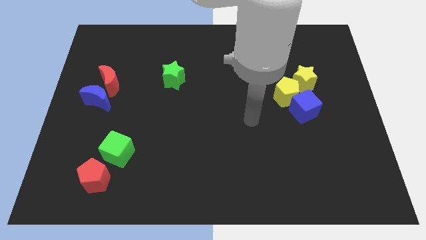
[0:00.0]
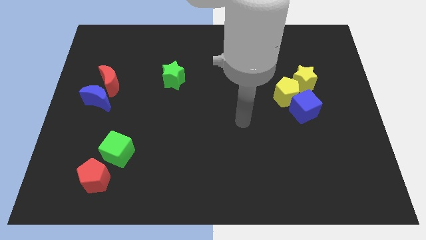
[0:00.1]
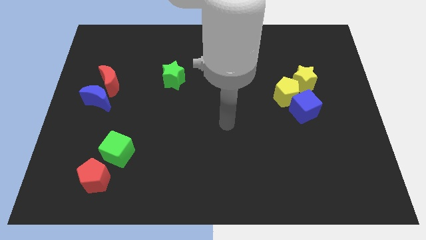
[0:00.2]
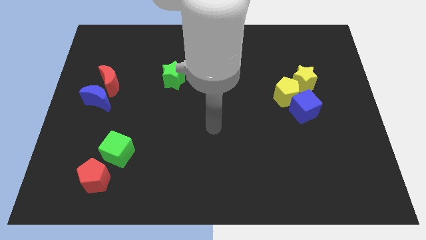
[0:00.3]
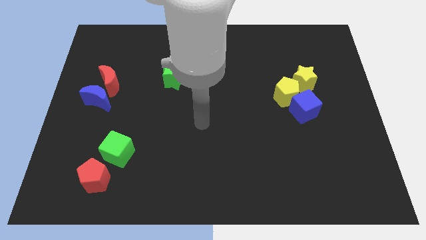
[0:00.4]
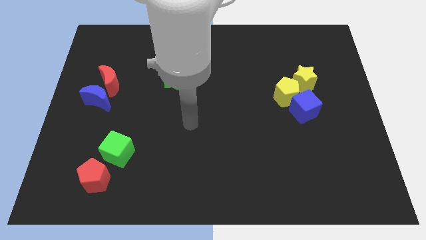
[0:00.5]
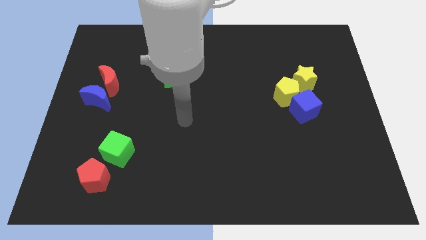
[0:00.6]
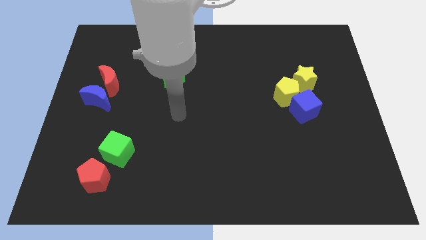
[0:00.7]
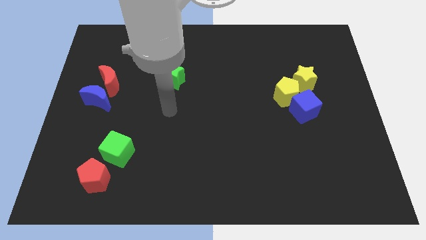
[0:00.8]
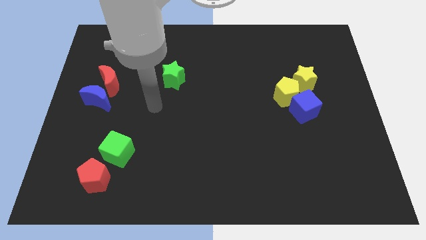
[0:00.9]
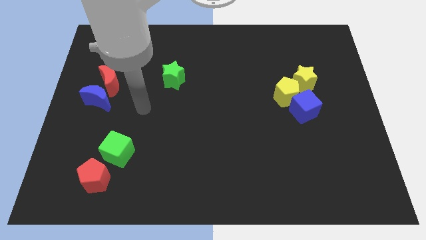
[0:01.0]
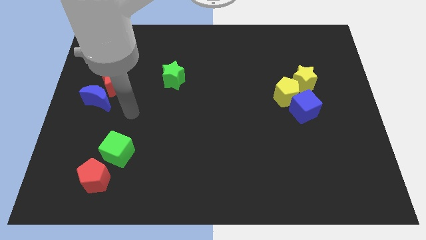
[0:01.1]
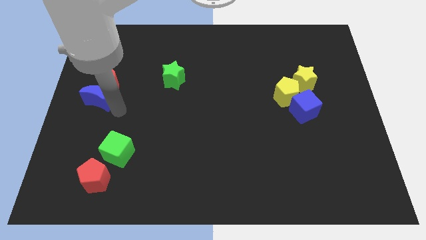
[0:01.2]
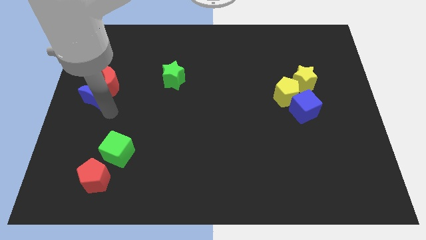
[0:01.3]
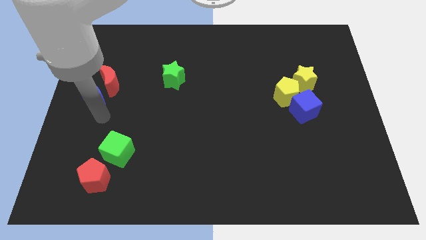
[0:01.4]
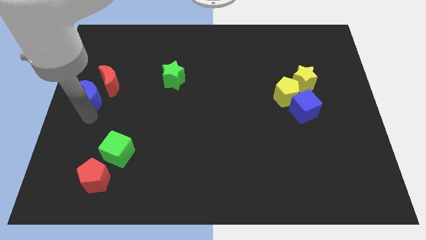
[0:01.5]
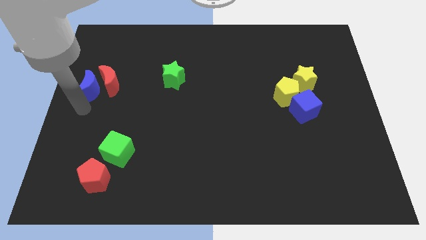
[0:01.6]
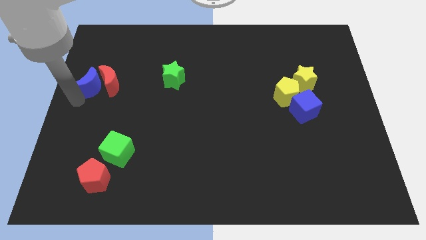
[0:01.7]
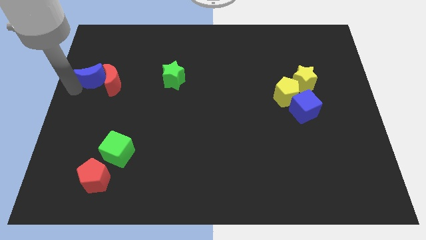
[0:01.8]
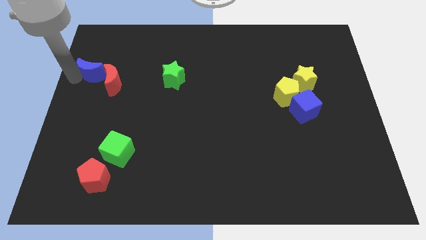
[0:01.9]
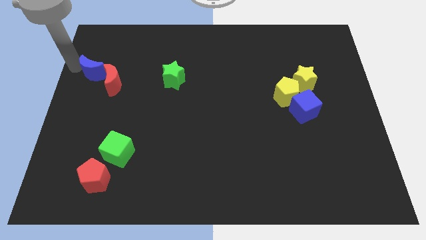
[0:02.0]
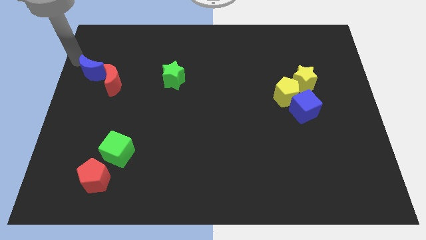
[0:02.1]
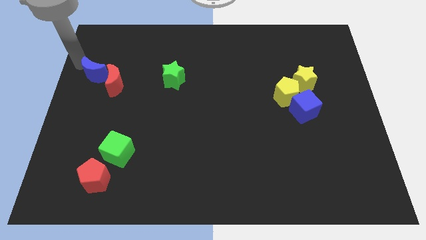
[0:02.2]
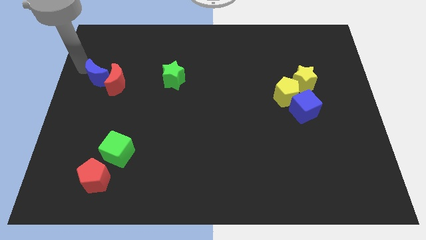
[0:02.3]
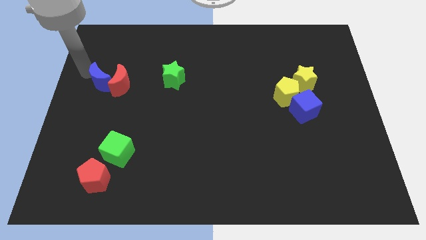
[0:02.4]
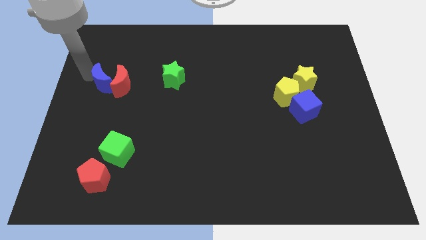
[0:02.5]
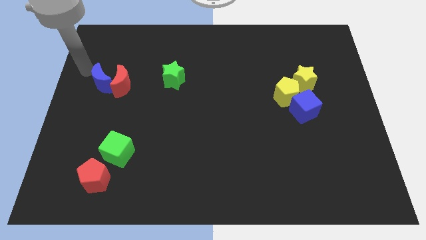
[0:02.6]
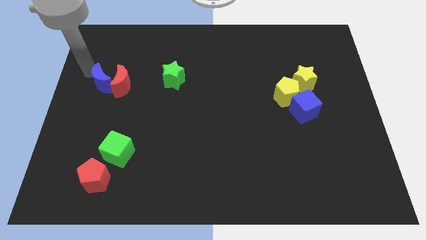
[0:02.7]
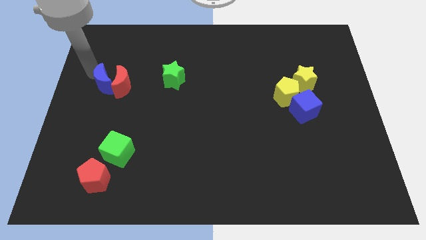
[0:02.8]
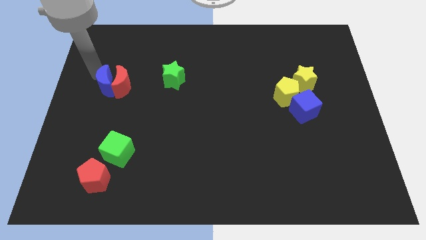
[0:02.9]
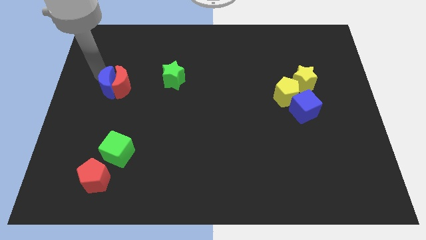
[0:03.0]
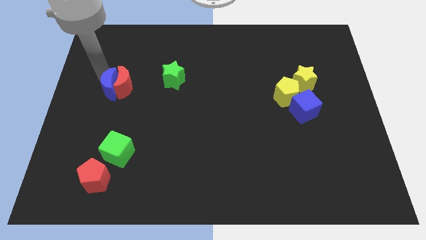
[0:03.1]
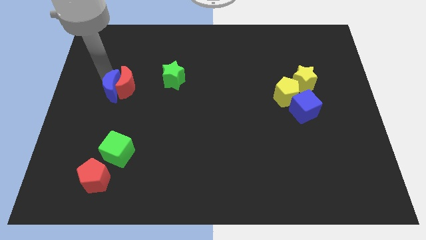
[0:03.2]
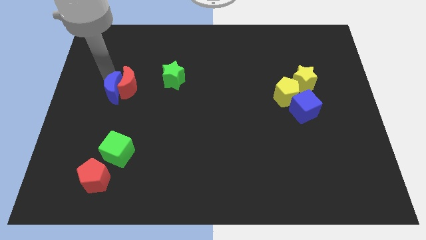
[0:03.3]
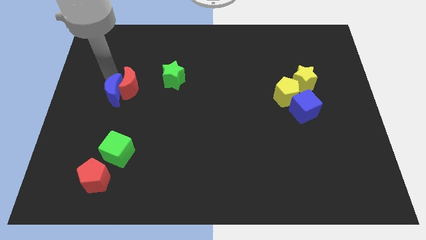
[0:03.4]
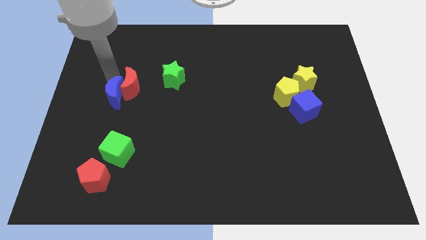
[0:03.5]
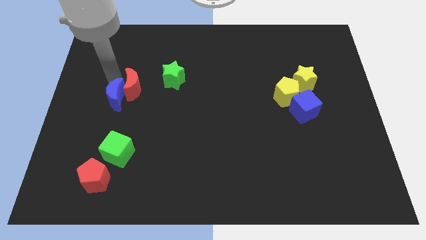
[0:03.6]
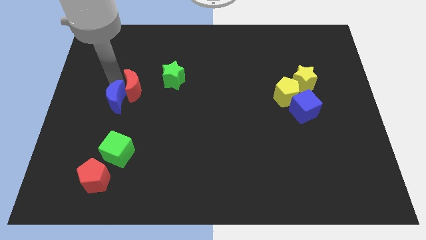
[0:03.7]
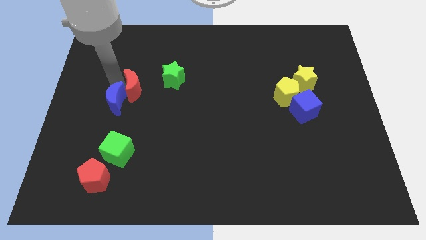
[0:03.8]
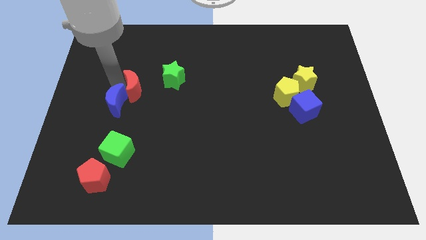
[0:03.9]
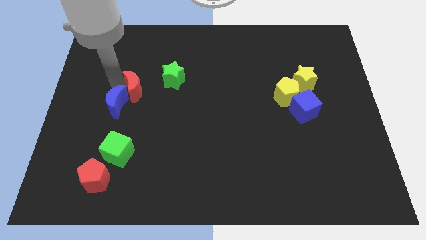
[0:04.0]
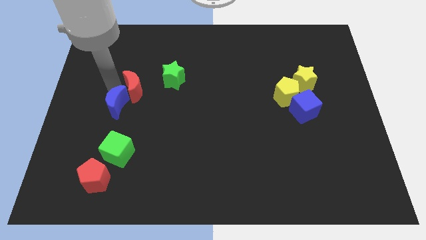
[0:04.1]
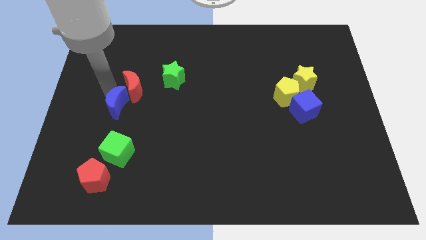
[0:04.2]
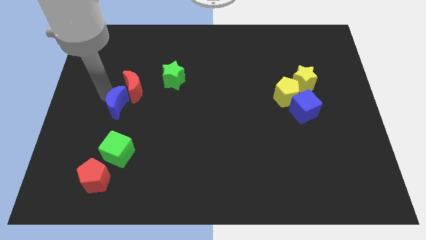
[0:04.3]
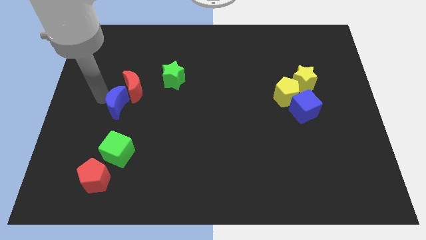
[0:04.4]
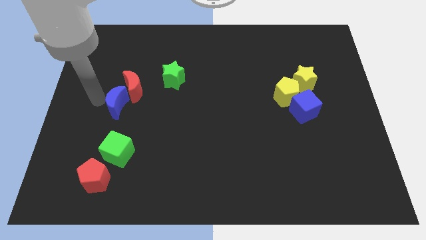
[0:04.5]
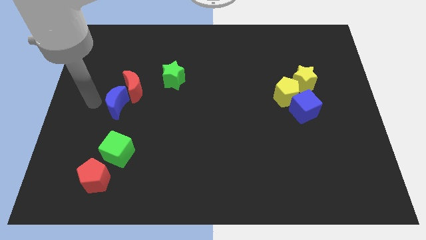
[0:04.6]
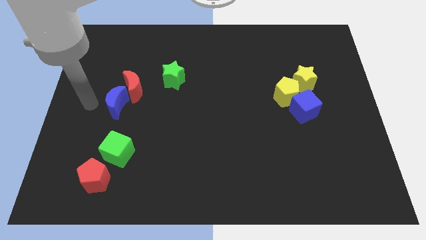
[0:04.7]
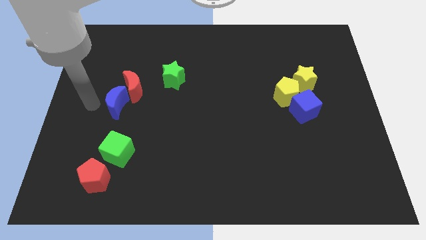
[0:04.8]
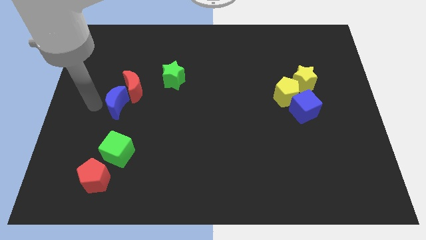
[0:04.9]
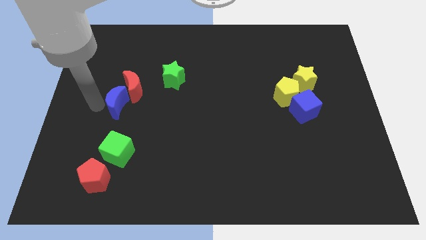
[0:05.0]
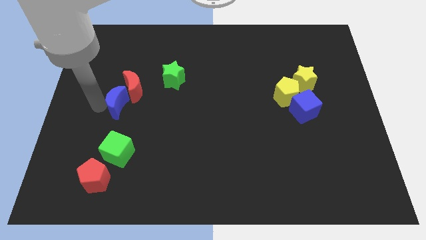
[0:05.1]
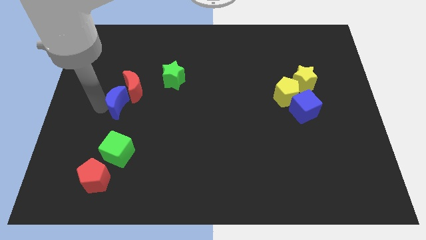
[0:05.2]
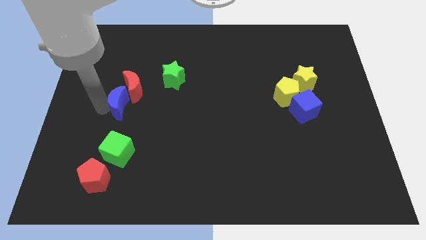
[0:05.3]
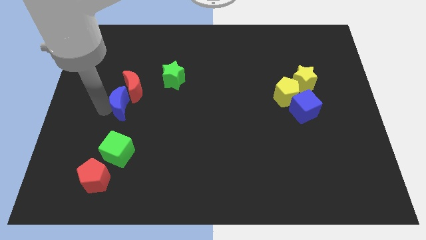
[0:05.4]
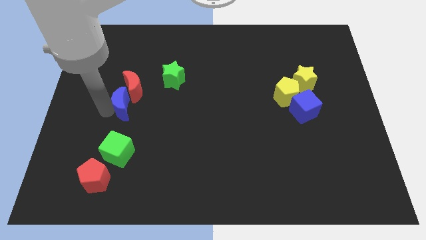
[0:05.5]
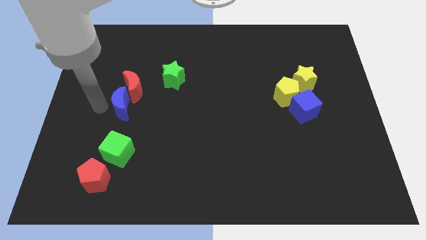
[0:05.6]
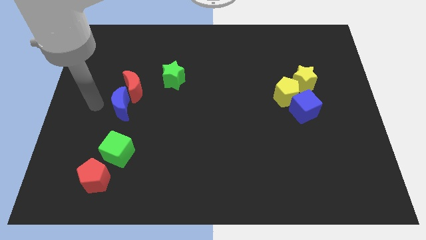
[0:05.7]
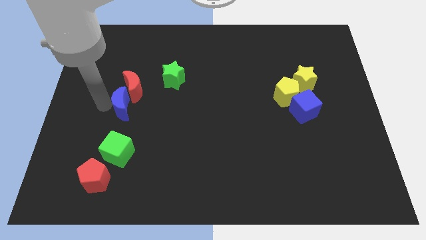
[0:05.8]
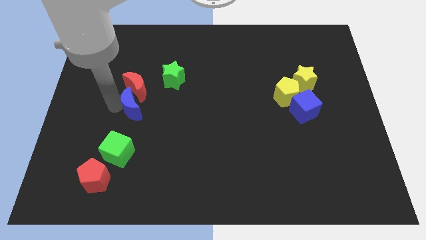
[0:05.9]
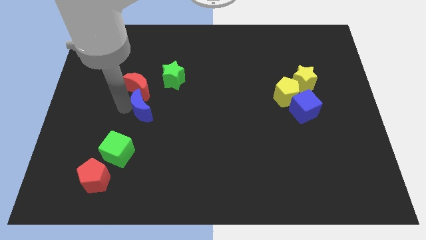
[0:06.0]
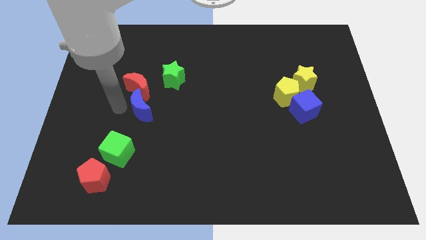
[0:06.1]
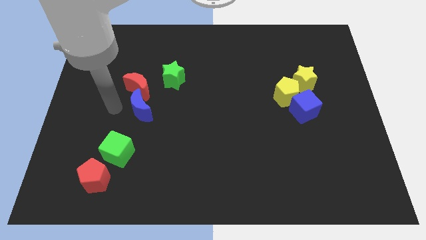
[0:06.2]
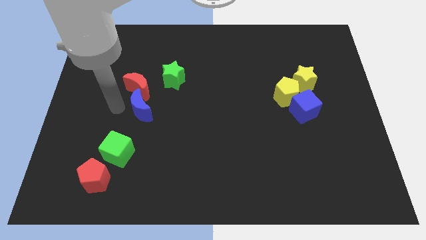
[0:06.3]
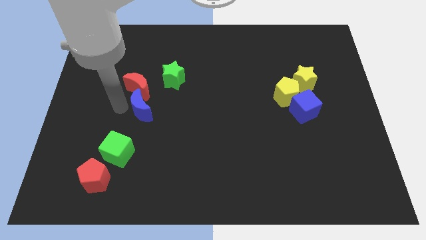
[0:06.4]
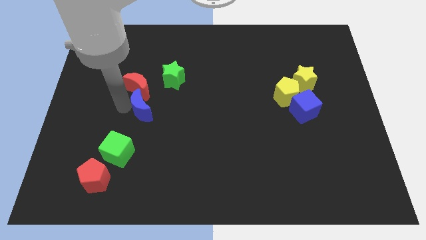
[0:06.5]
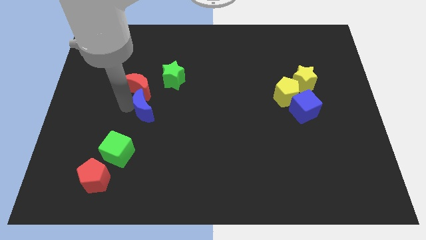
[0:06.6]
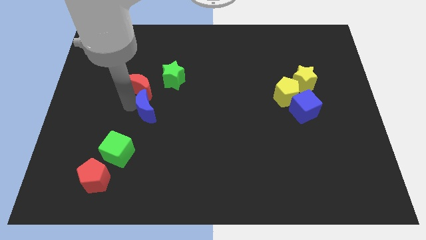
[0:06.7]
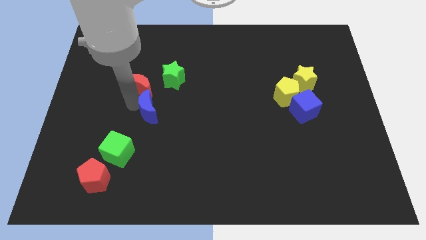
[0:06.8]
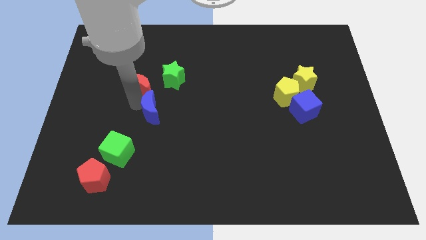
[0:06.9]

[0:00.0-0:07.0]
slide the blue moon below the green star

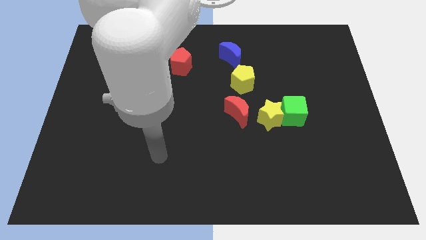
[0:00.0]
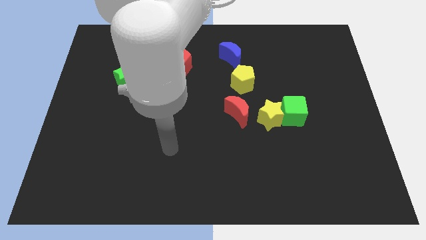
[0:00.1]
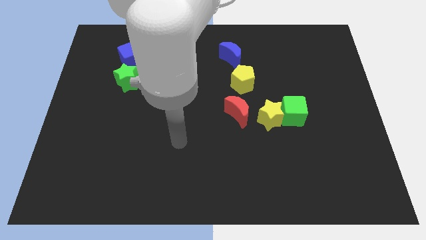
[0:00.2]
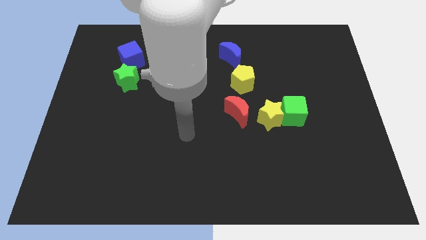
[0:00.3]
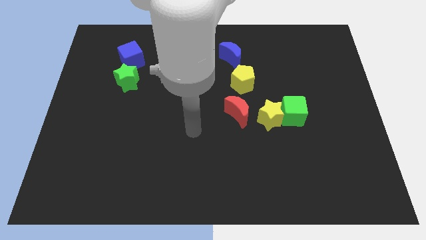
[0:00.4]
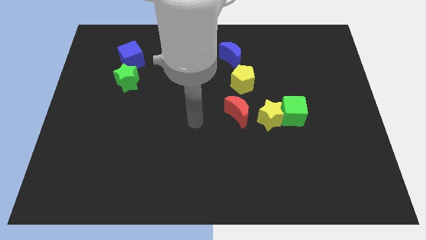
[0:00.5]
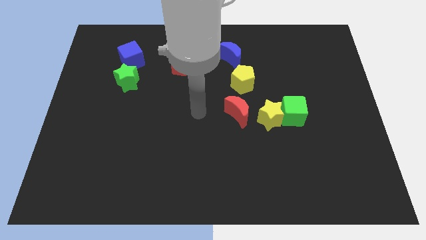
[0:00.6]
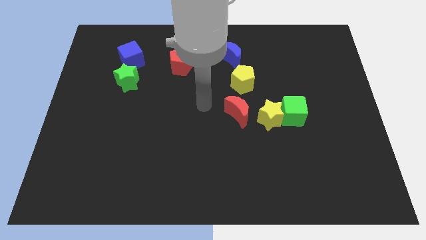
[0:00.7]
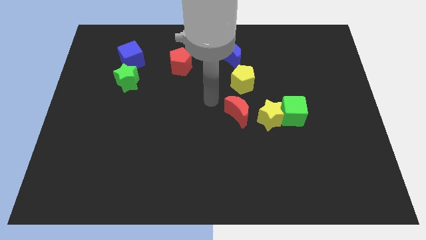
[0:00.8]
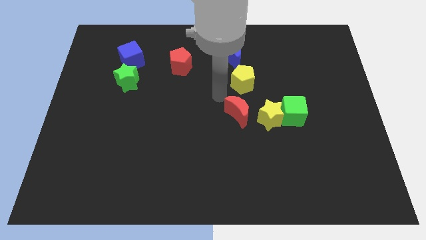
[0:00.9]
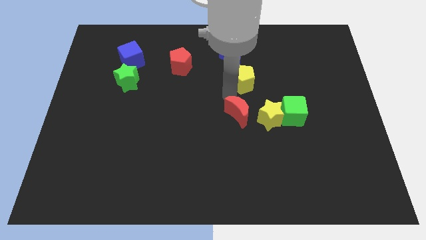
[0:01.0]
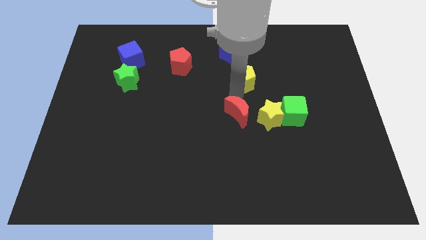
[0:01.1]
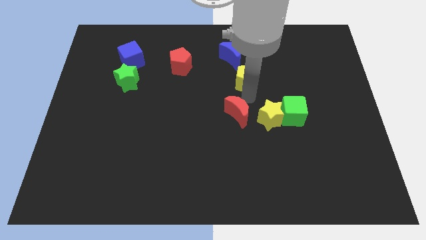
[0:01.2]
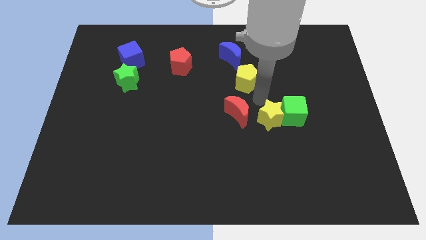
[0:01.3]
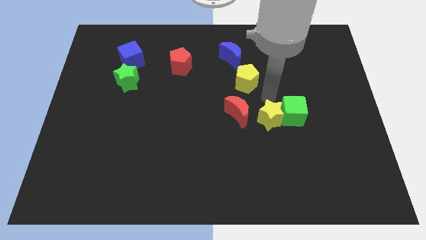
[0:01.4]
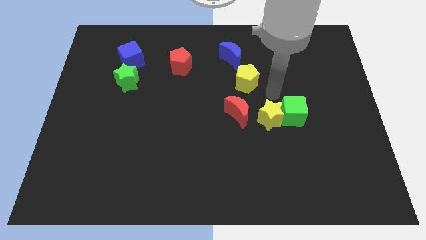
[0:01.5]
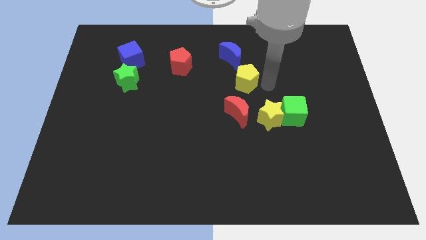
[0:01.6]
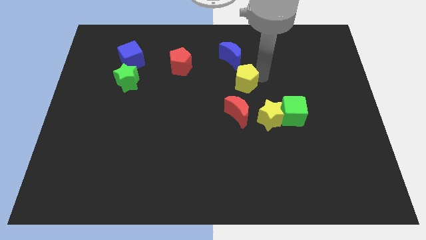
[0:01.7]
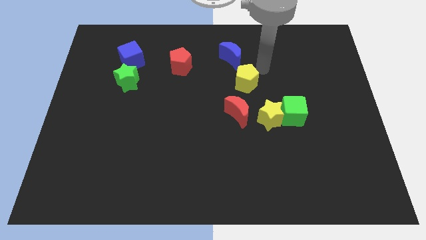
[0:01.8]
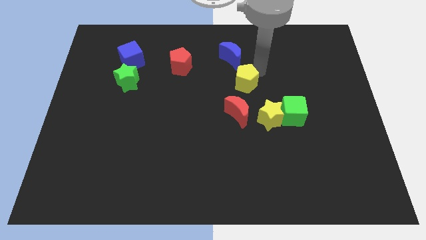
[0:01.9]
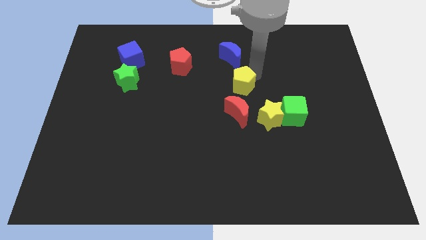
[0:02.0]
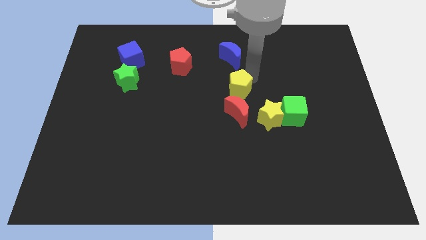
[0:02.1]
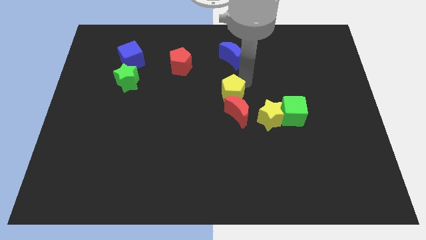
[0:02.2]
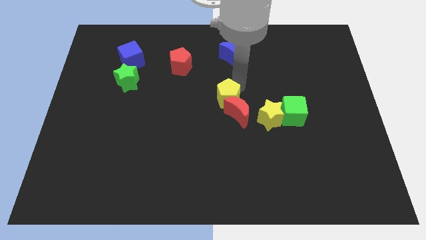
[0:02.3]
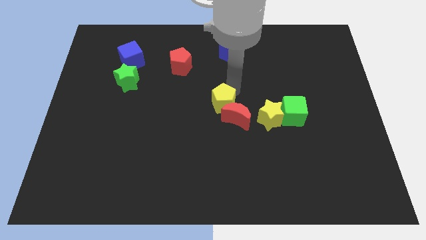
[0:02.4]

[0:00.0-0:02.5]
push the yellow pentagon left of the yellow star
